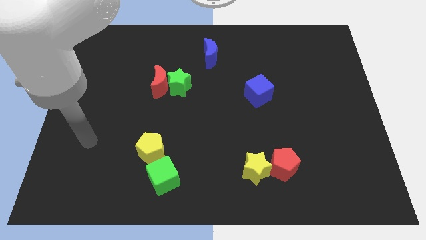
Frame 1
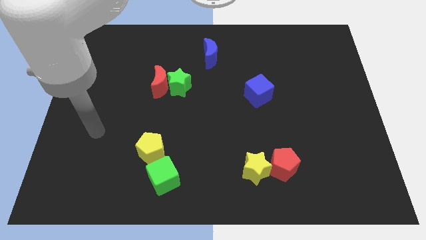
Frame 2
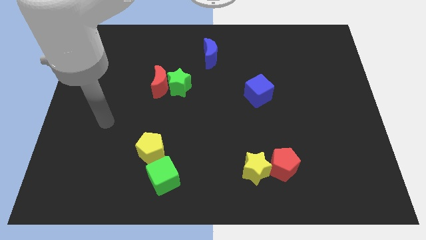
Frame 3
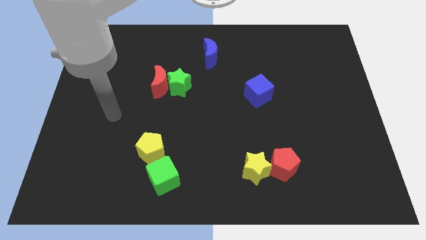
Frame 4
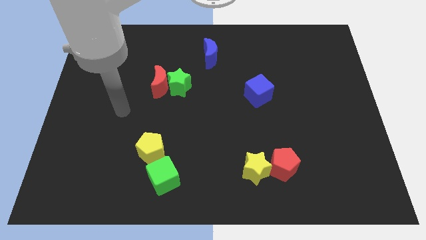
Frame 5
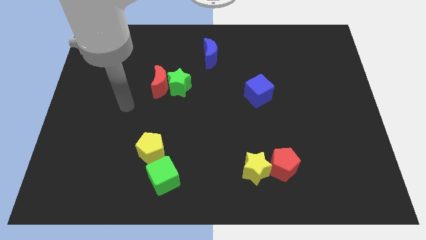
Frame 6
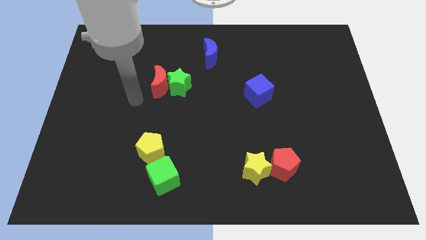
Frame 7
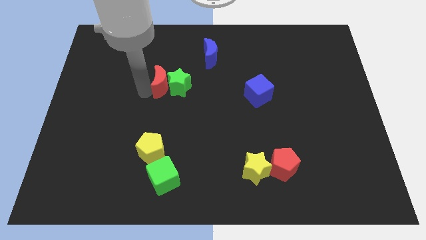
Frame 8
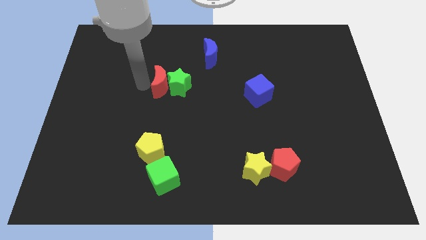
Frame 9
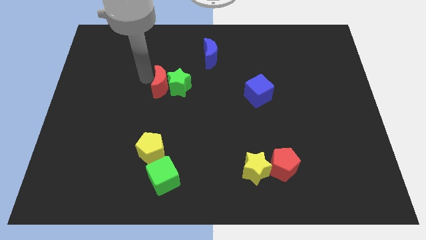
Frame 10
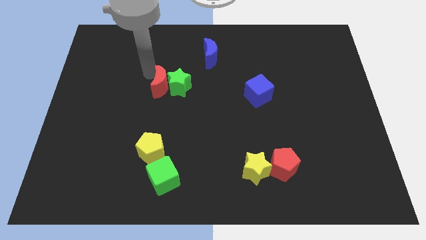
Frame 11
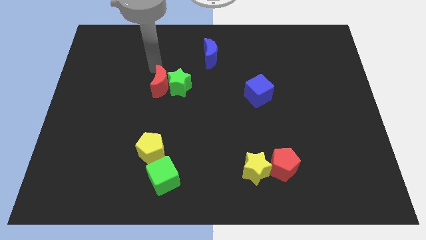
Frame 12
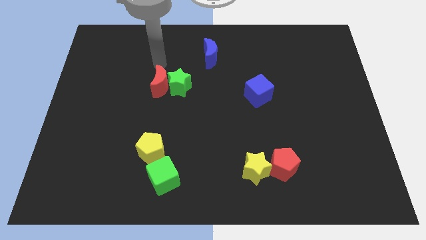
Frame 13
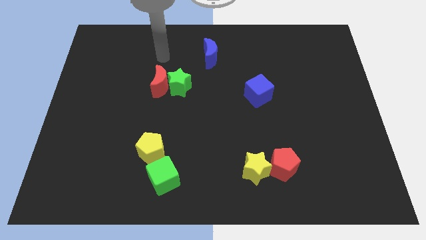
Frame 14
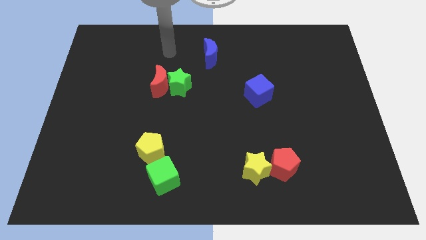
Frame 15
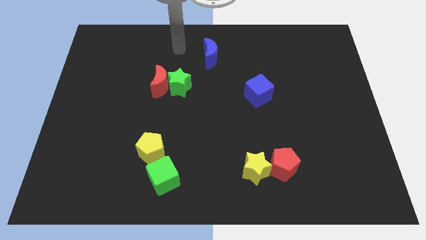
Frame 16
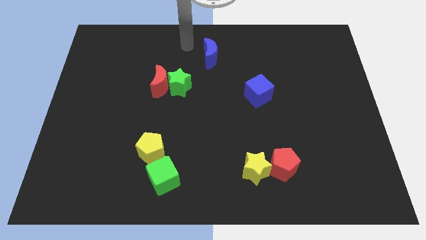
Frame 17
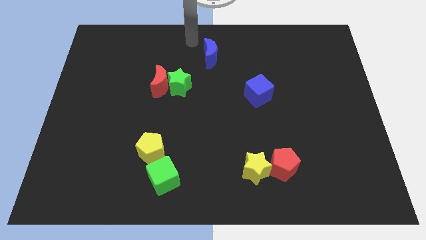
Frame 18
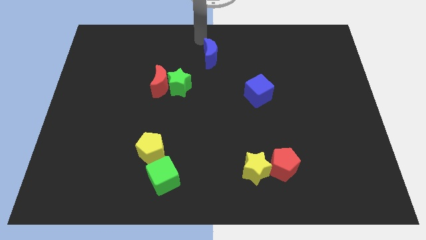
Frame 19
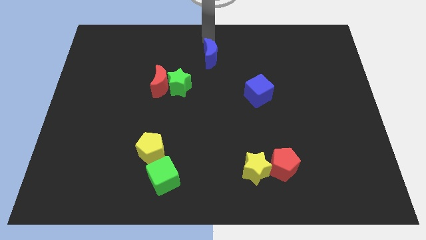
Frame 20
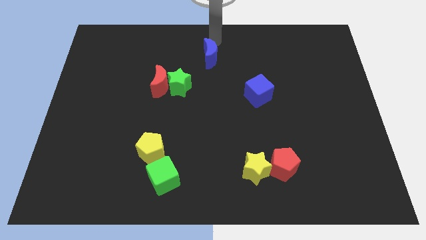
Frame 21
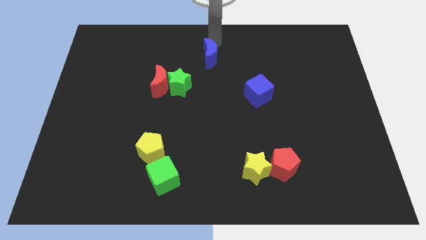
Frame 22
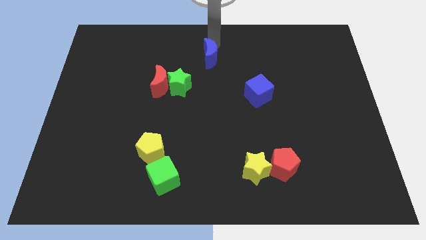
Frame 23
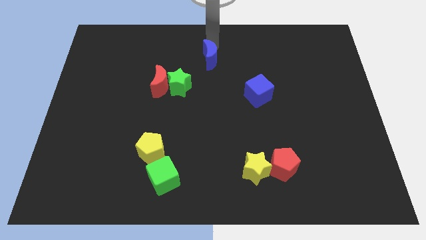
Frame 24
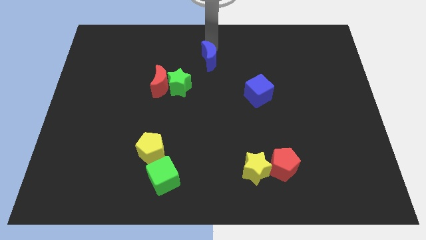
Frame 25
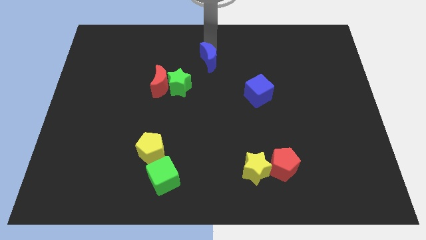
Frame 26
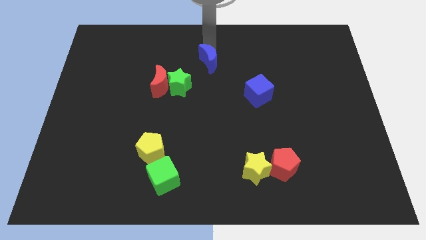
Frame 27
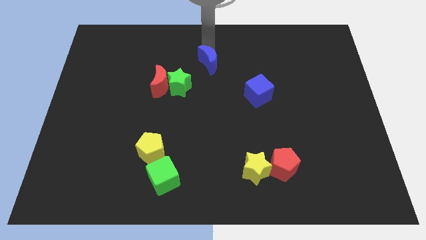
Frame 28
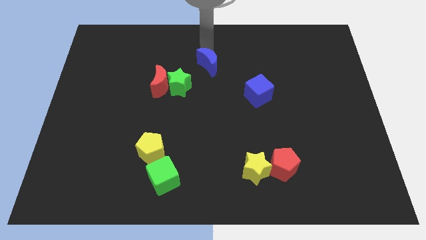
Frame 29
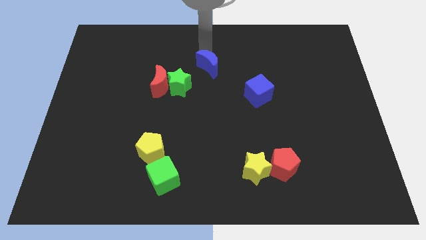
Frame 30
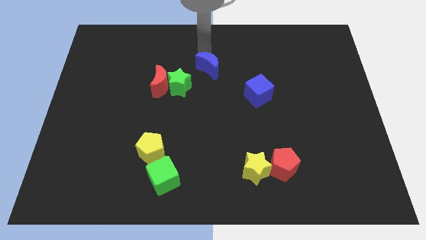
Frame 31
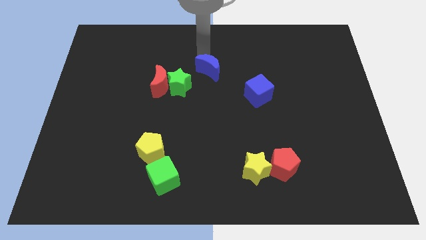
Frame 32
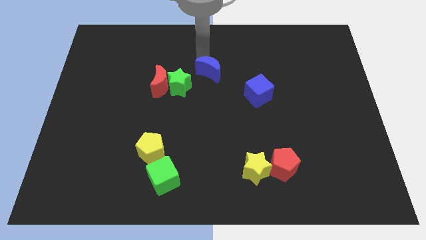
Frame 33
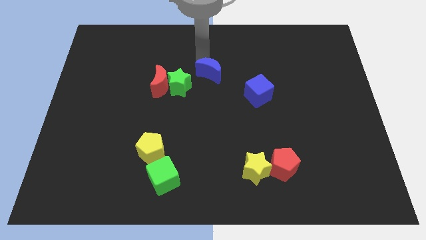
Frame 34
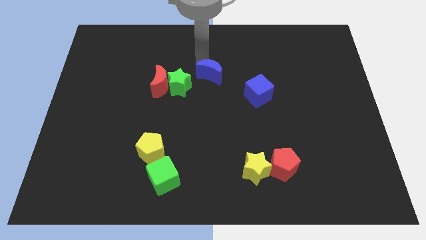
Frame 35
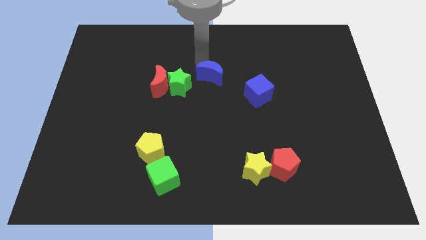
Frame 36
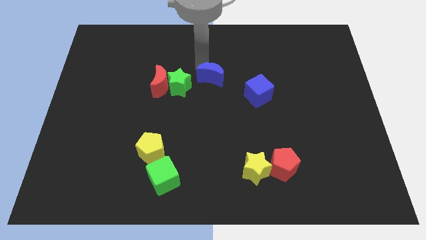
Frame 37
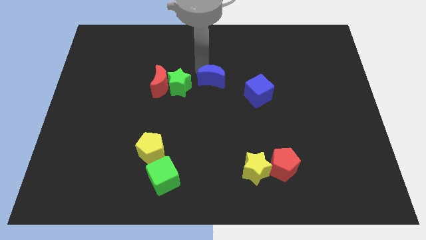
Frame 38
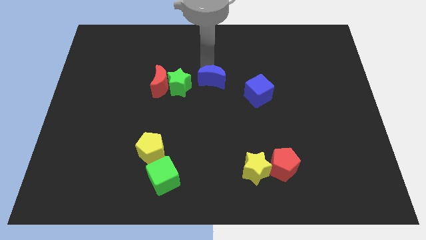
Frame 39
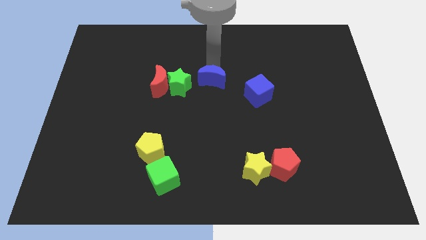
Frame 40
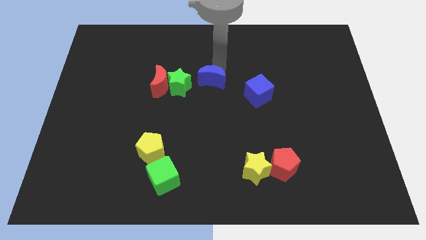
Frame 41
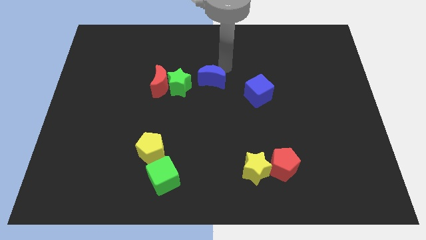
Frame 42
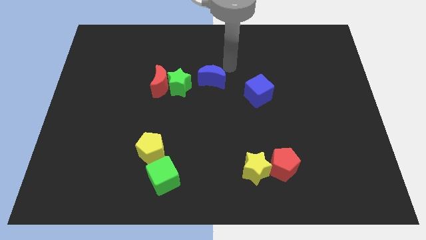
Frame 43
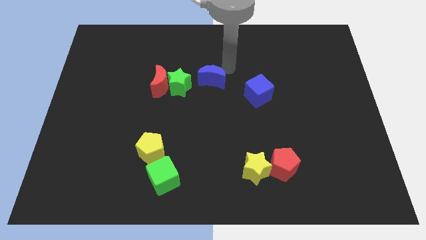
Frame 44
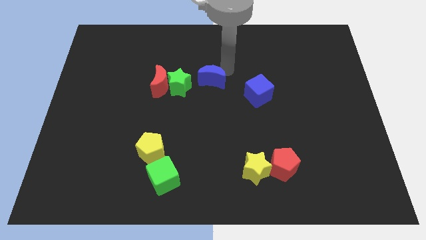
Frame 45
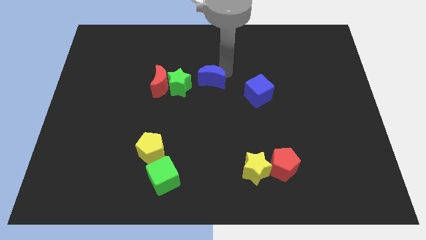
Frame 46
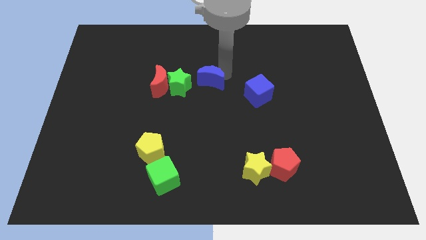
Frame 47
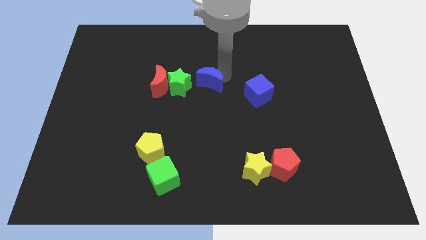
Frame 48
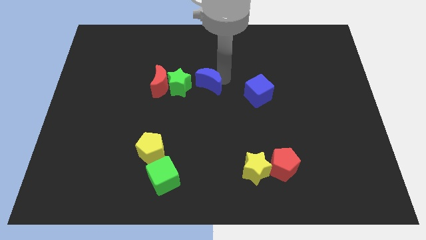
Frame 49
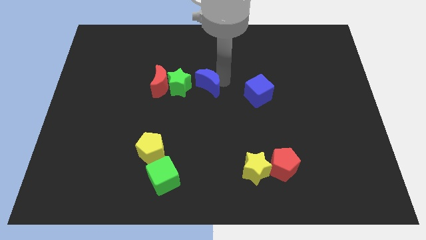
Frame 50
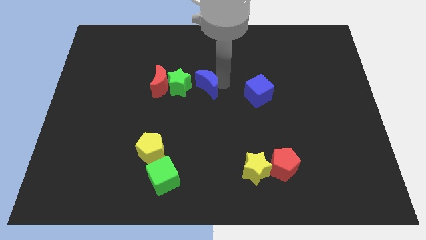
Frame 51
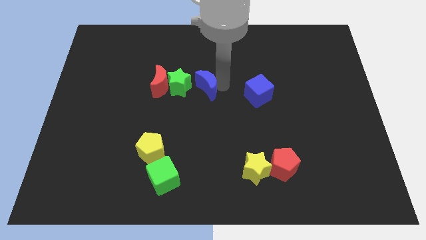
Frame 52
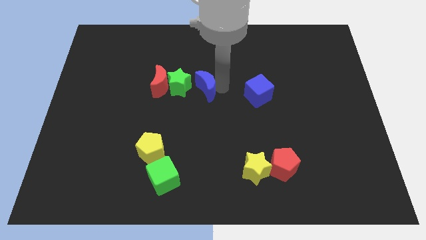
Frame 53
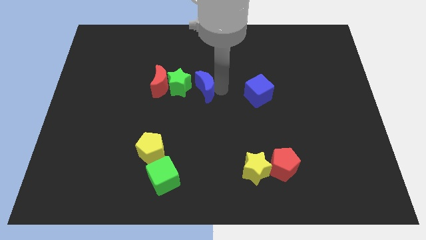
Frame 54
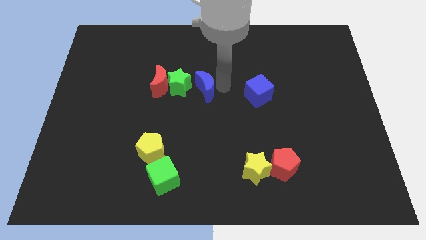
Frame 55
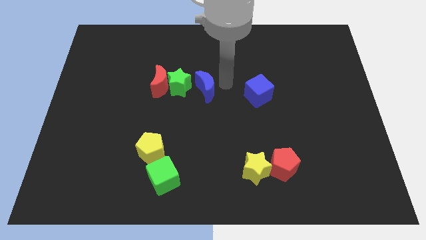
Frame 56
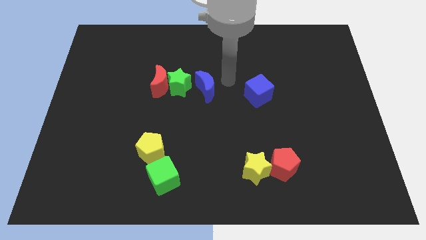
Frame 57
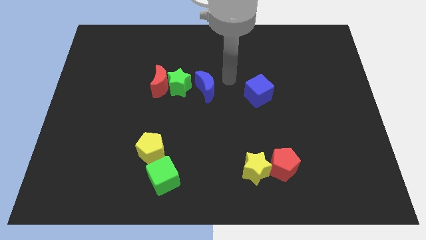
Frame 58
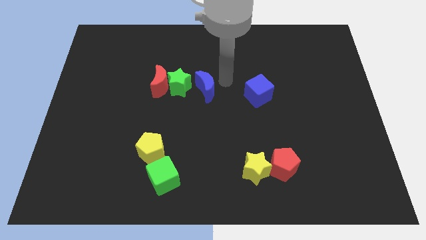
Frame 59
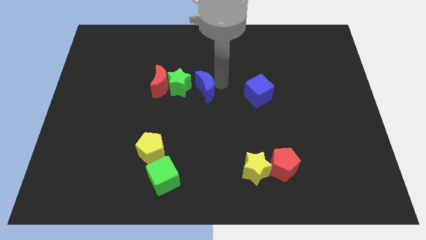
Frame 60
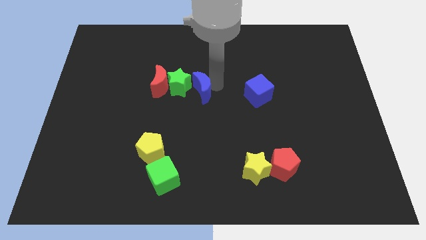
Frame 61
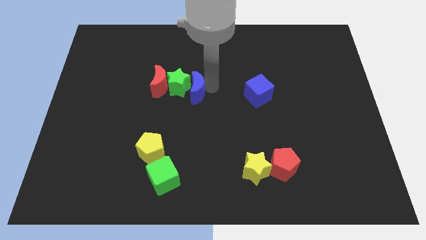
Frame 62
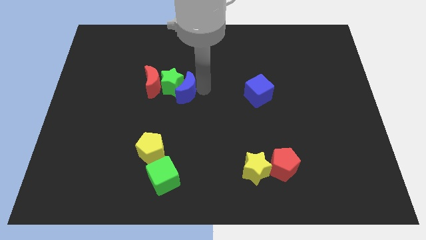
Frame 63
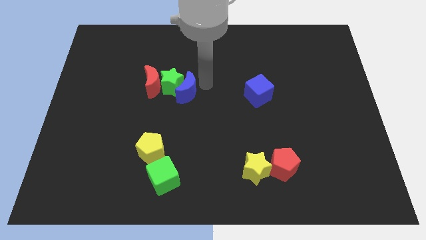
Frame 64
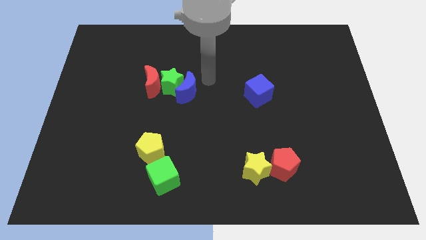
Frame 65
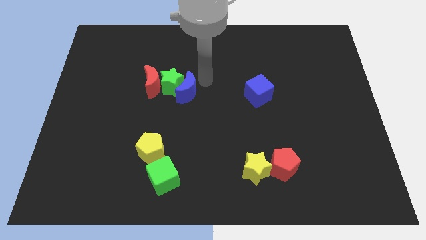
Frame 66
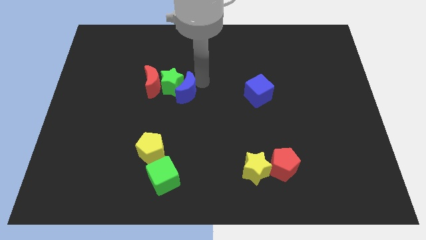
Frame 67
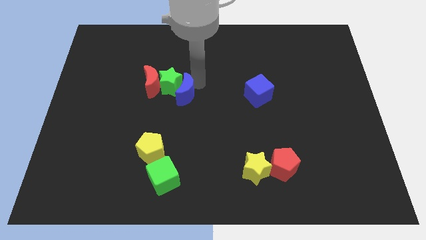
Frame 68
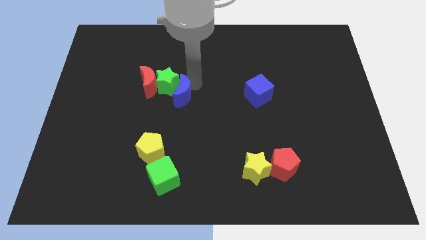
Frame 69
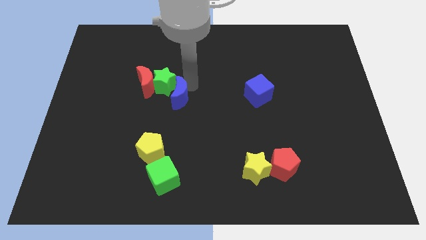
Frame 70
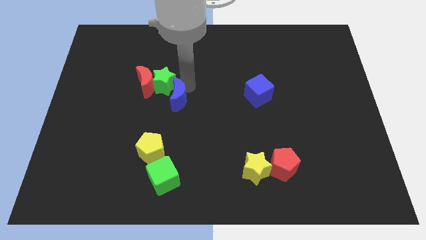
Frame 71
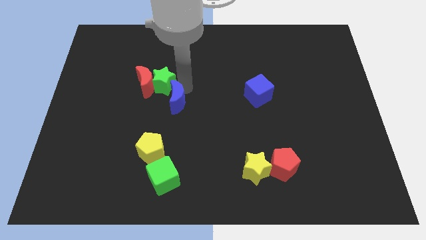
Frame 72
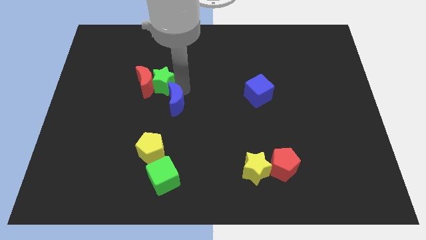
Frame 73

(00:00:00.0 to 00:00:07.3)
push the blue moon to the top of the yellow pentagon

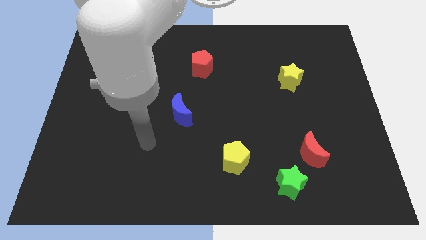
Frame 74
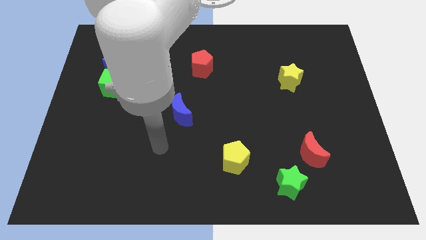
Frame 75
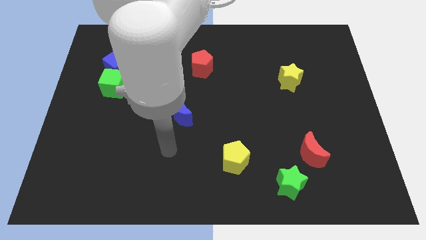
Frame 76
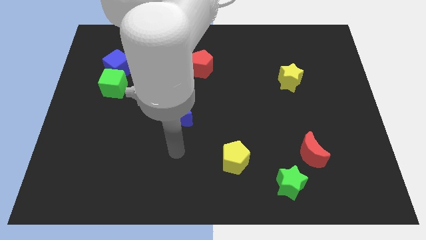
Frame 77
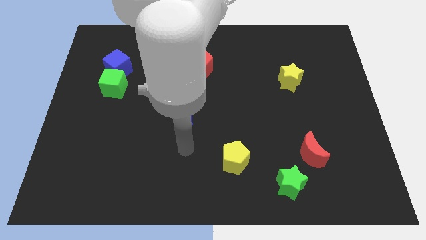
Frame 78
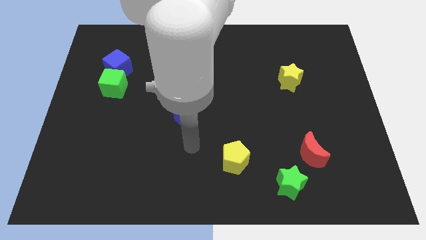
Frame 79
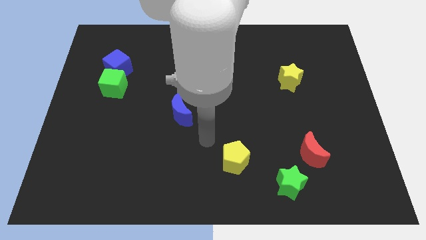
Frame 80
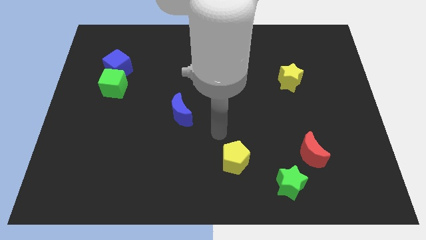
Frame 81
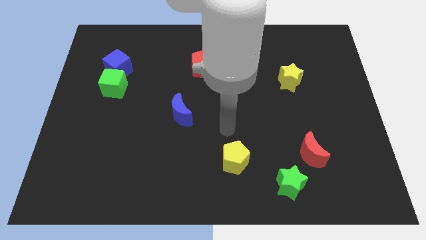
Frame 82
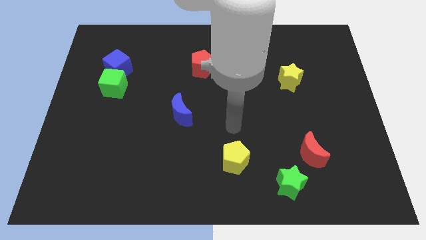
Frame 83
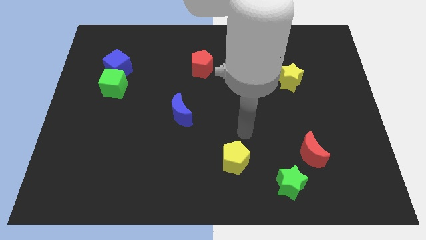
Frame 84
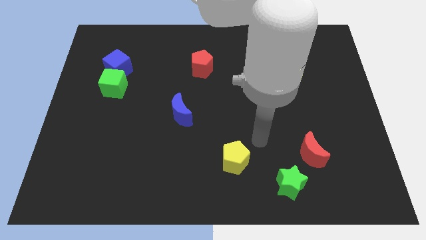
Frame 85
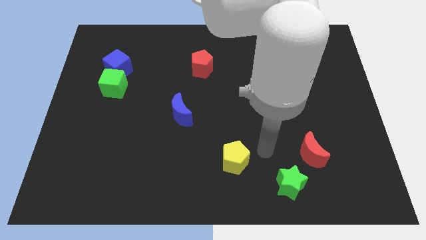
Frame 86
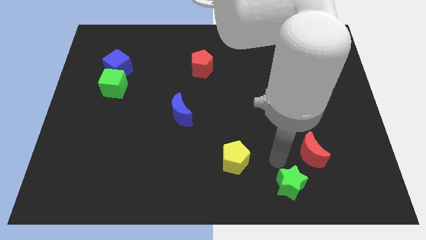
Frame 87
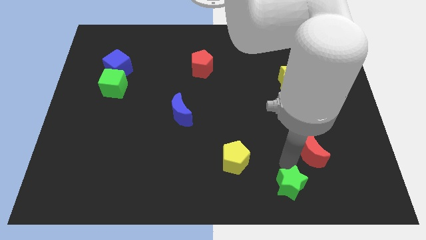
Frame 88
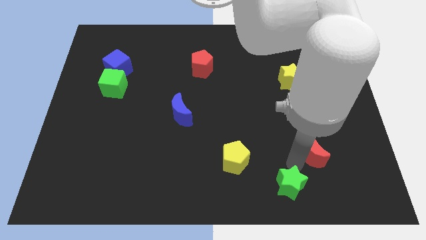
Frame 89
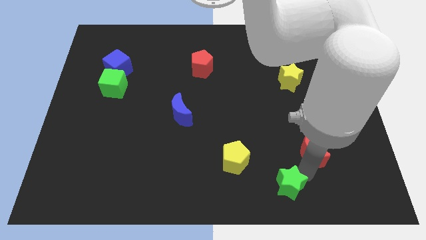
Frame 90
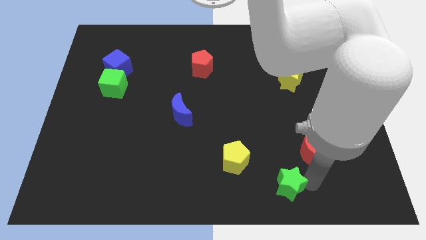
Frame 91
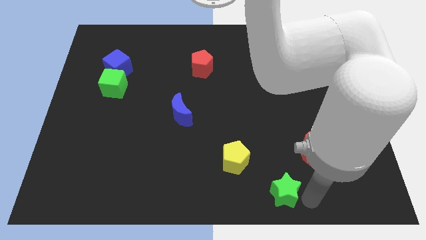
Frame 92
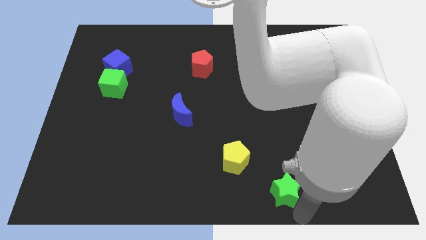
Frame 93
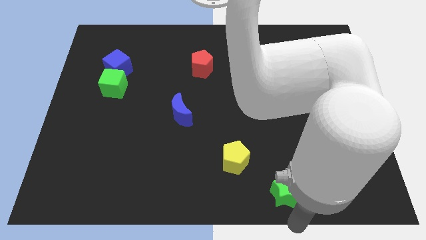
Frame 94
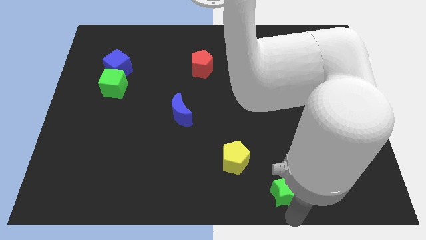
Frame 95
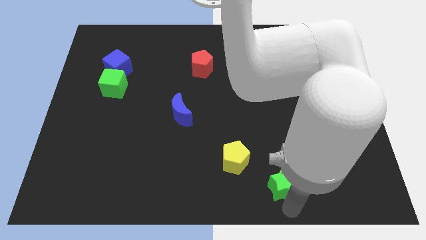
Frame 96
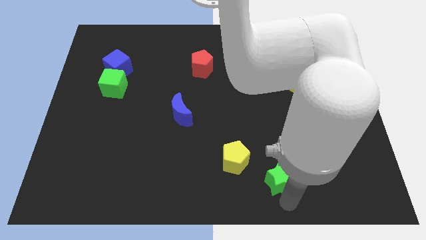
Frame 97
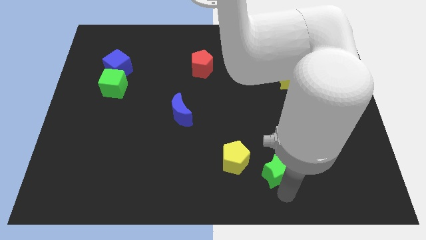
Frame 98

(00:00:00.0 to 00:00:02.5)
push the green star to the left of the red moon
